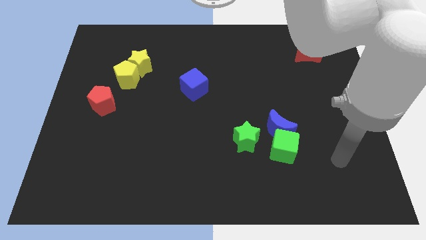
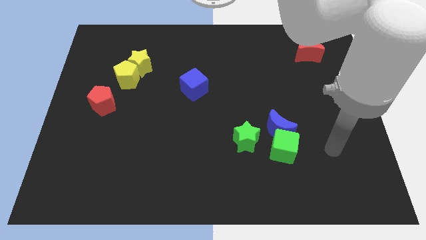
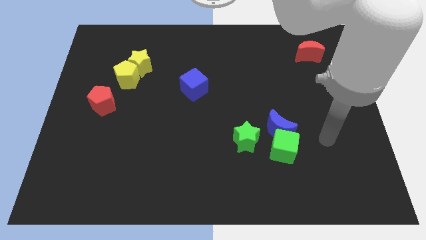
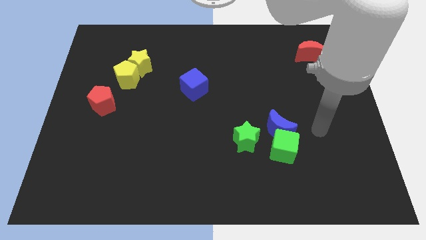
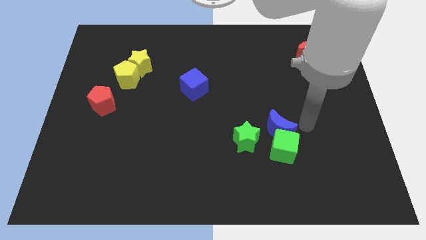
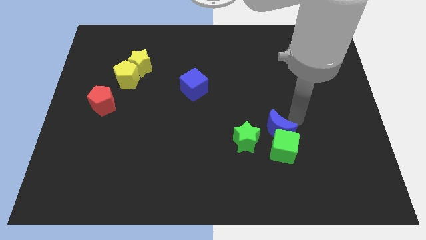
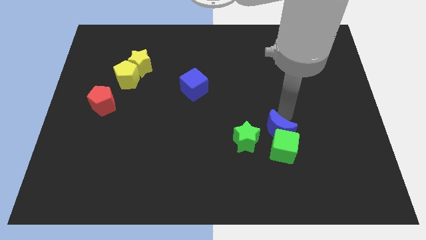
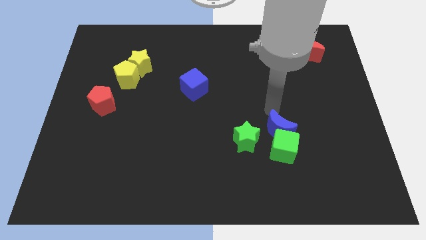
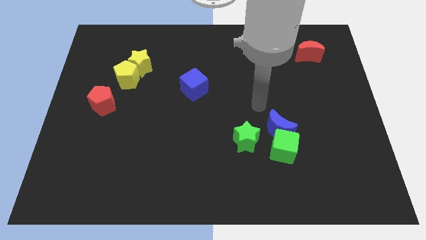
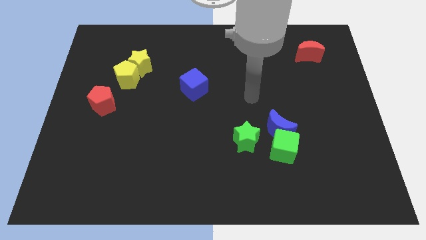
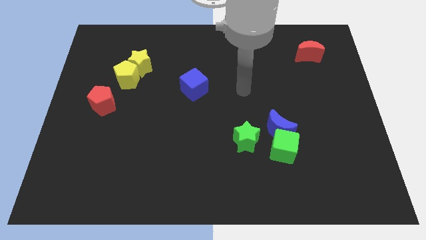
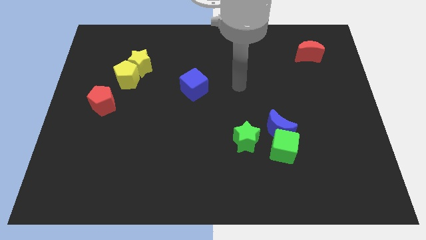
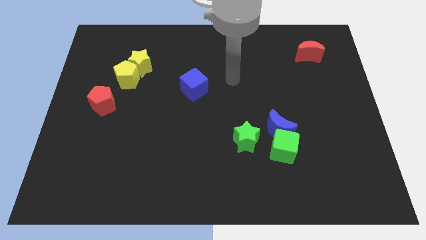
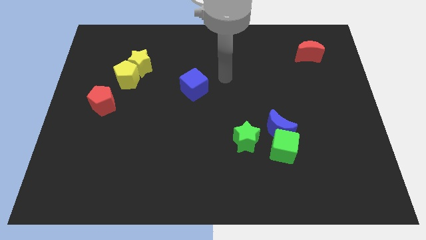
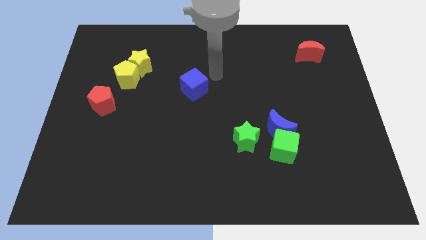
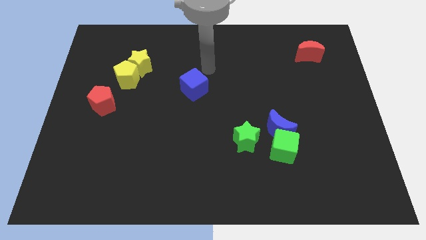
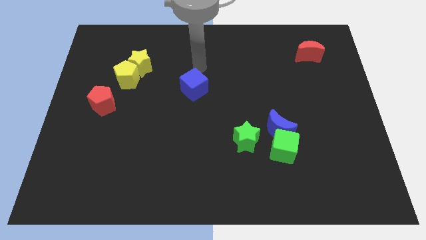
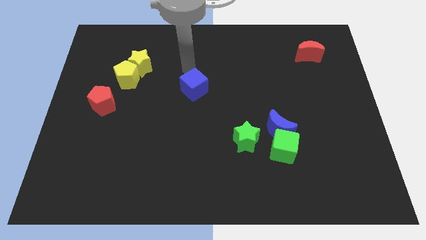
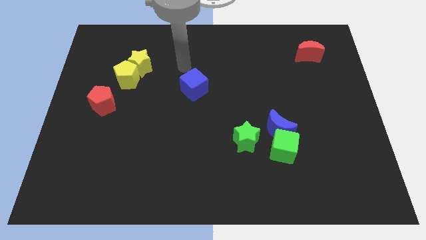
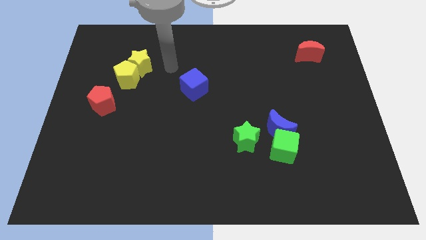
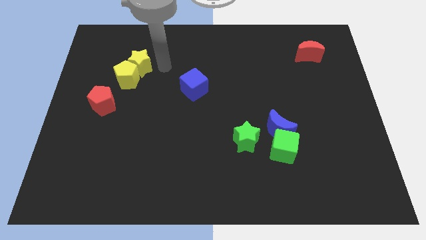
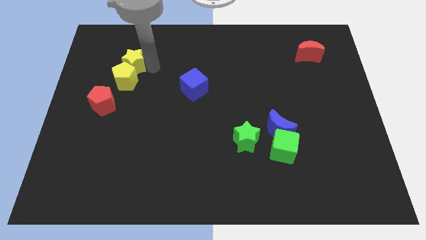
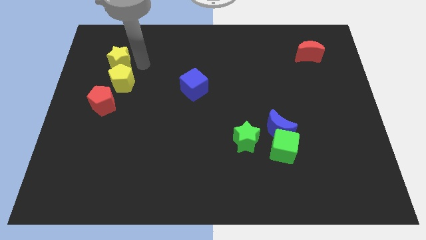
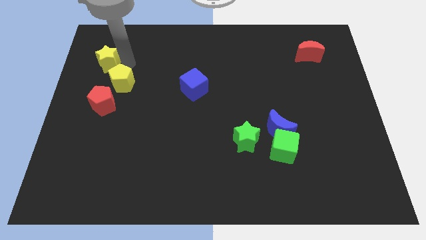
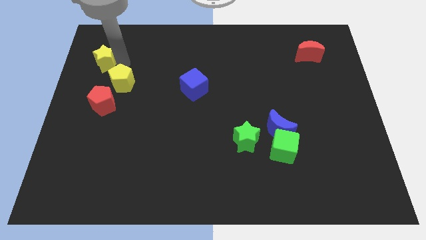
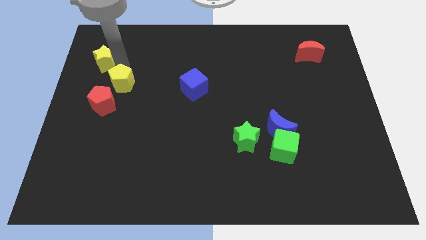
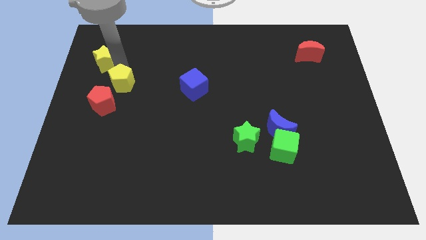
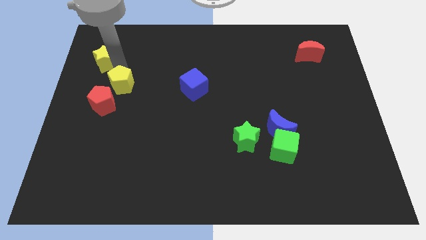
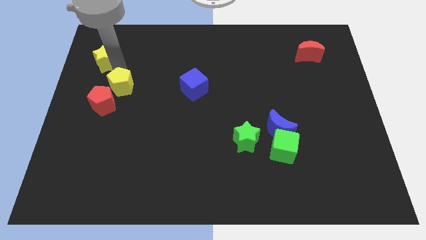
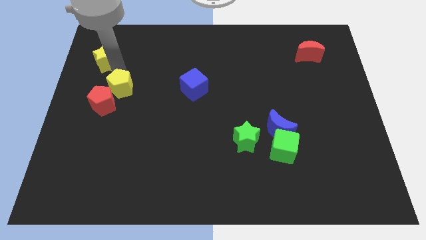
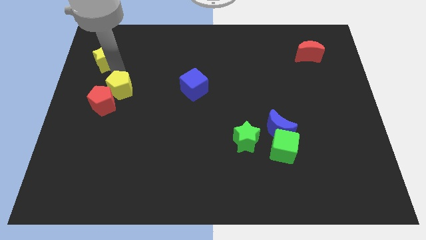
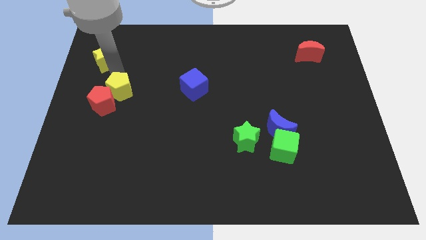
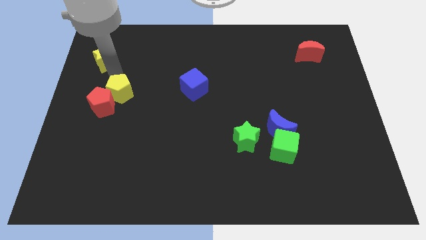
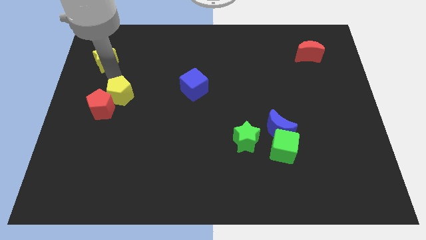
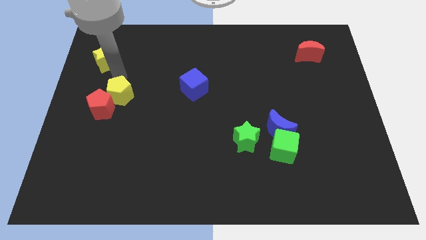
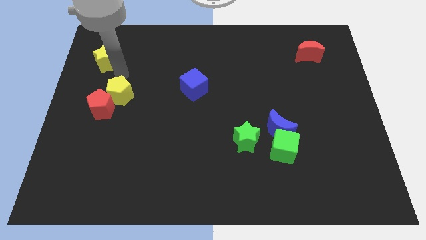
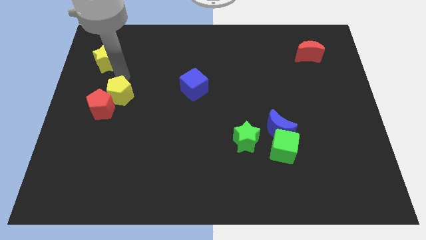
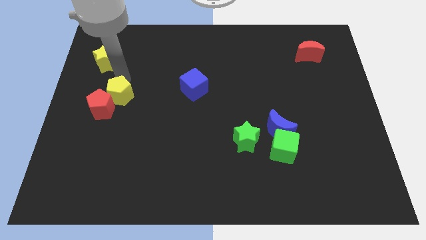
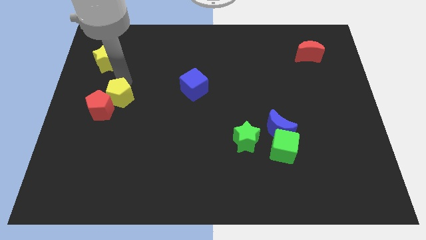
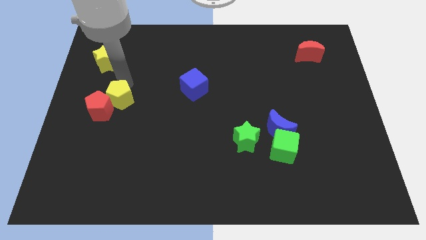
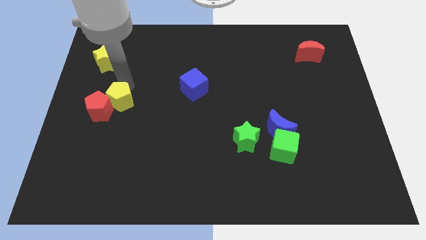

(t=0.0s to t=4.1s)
push the yellow pentagon a little down

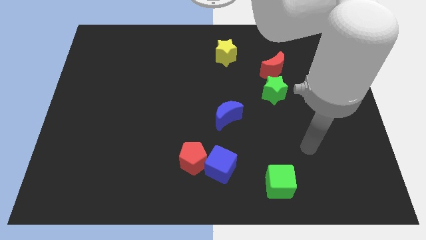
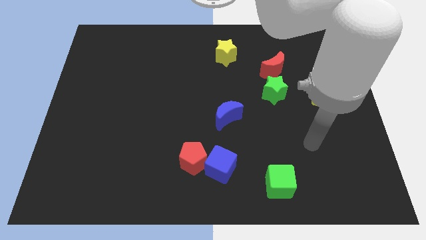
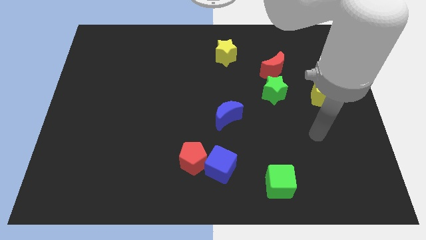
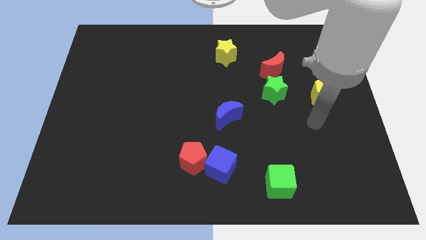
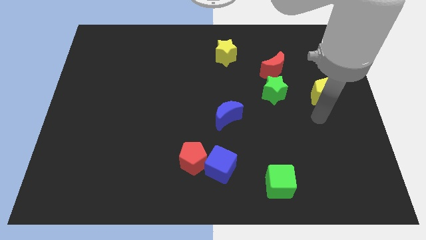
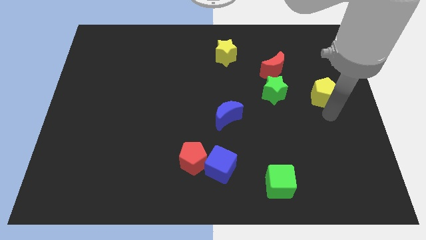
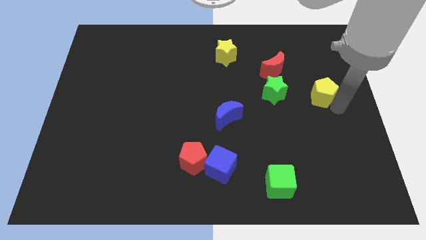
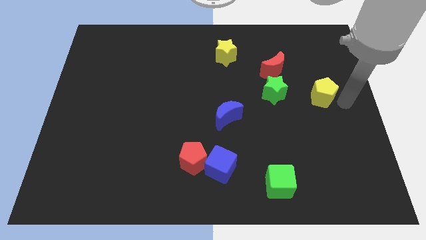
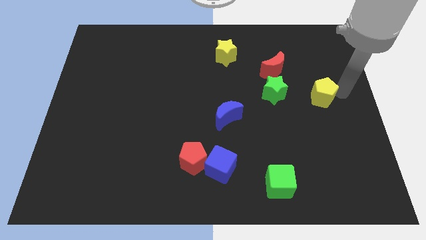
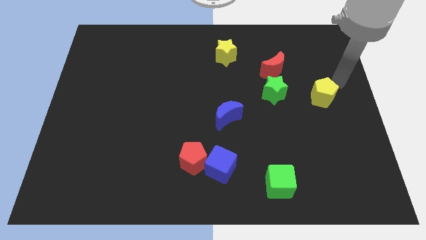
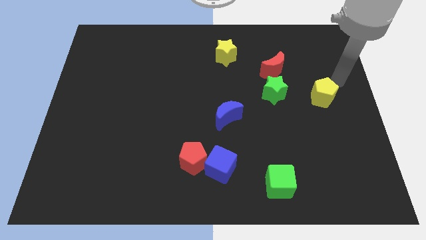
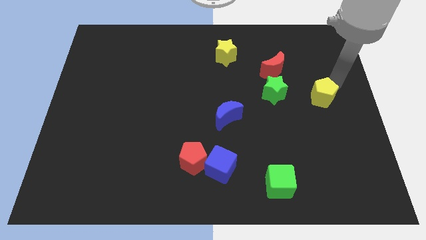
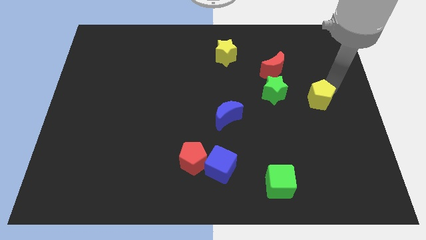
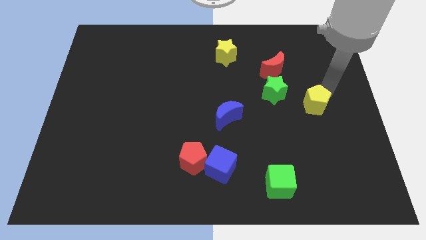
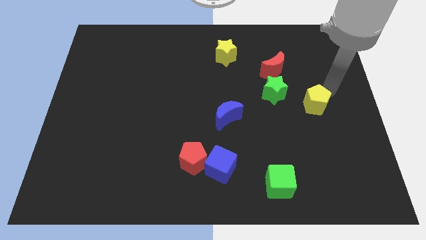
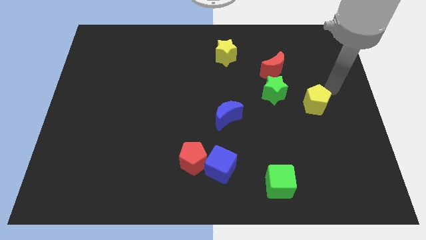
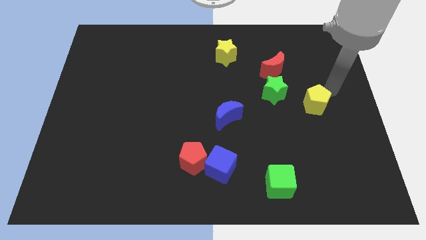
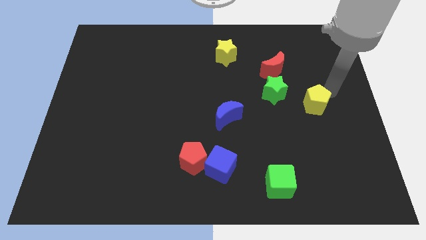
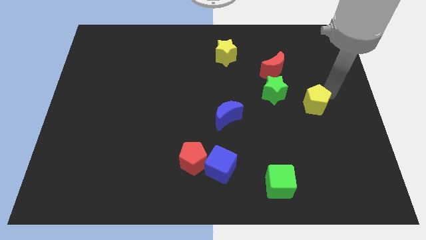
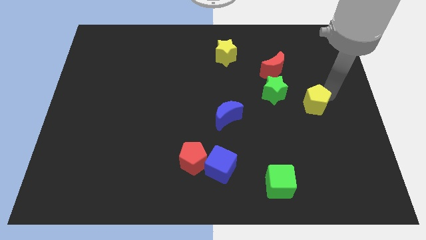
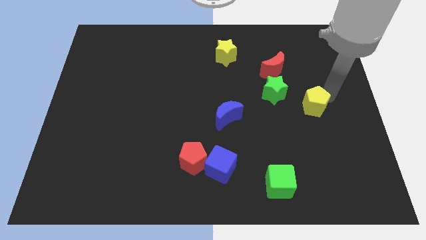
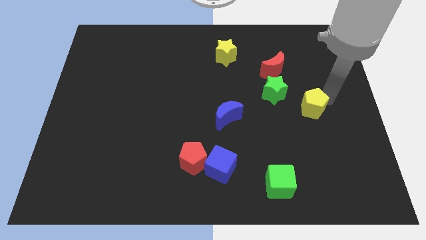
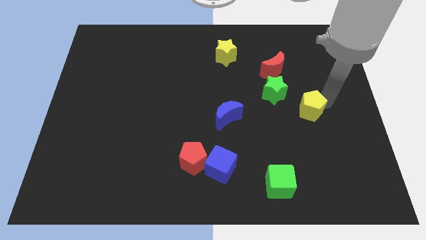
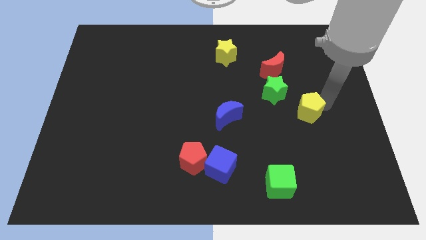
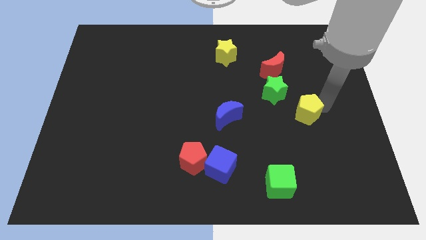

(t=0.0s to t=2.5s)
slightly move the yellow pentagon downwards and to the left

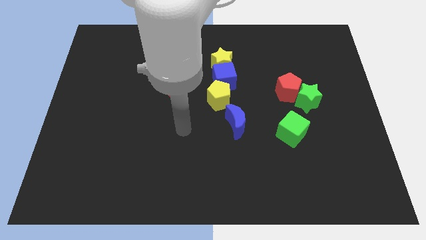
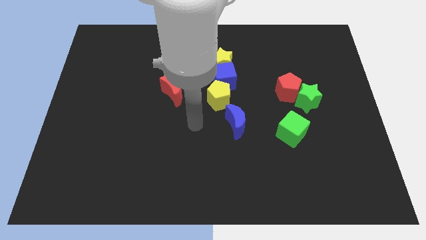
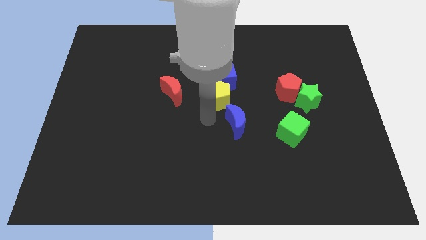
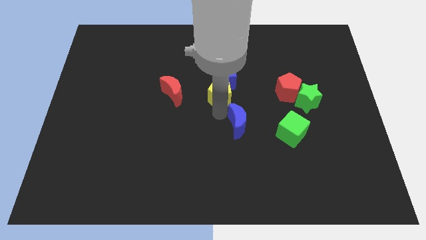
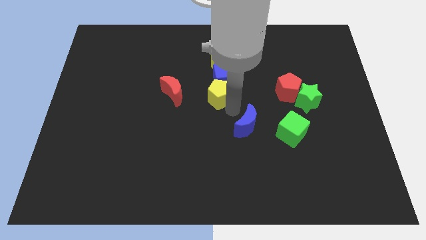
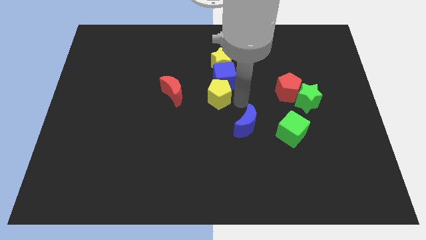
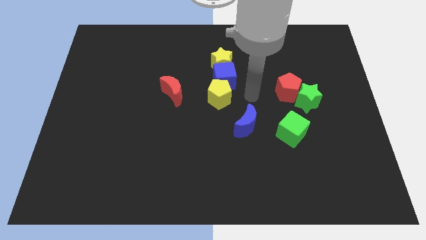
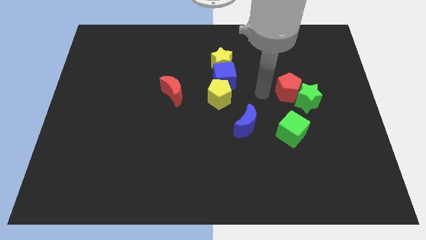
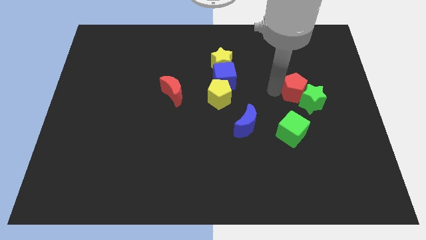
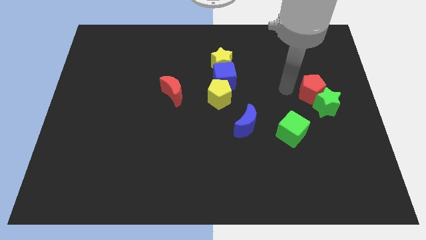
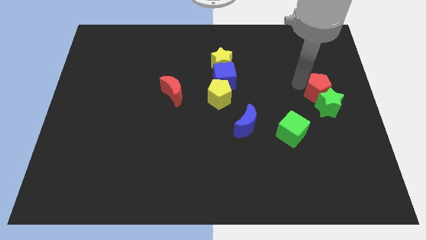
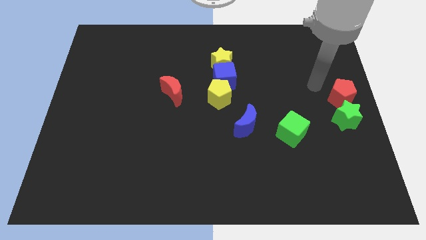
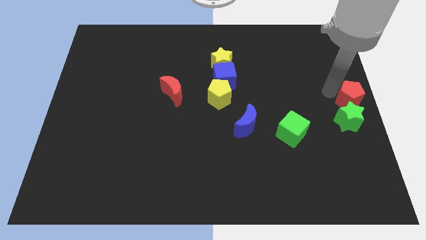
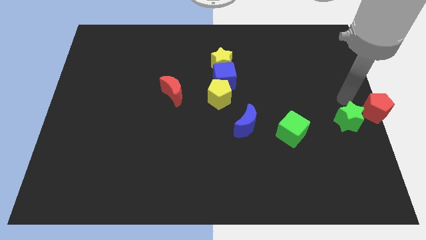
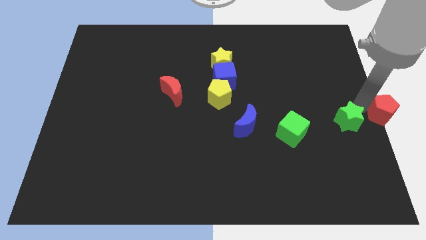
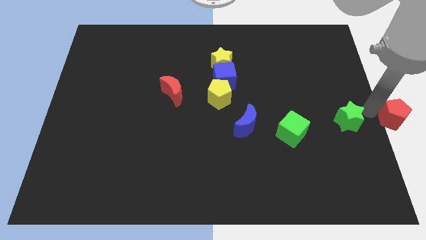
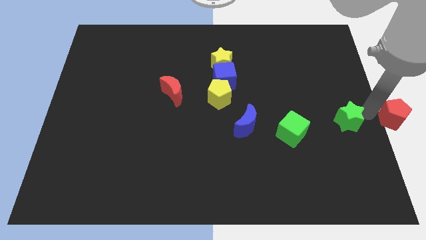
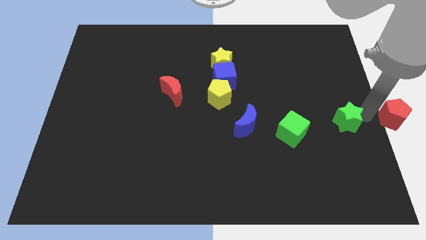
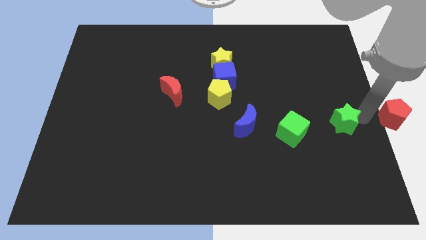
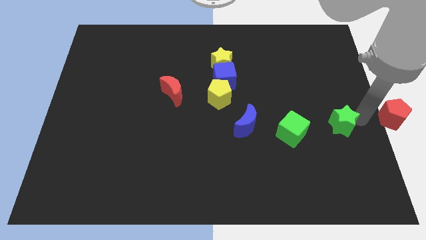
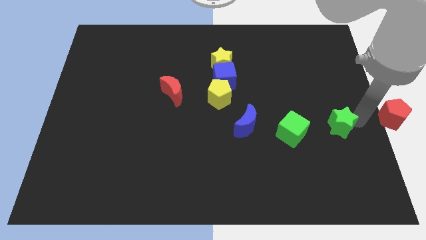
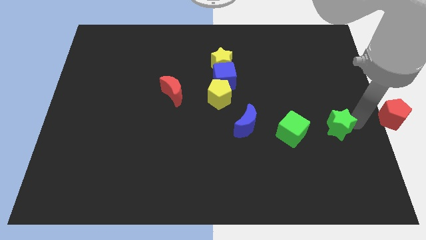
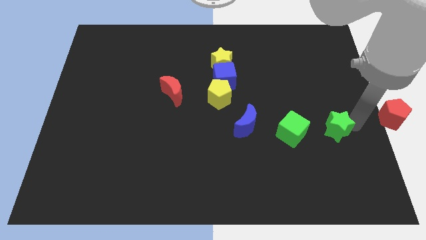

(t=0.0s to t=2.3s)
push the green star somewhat down
